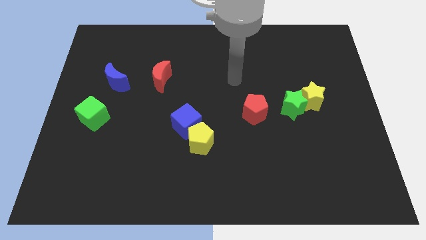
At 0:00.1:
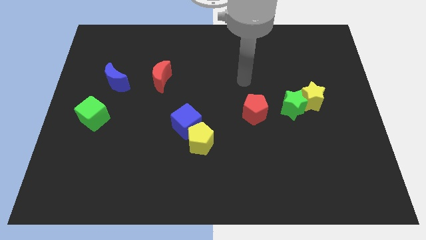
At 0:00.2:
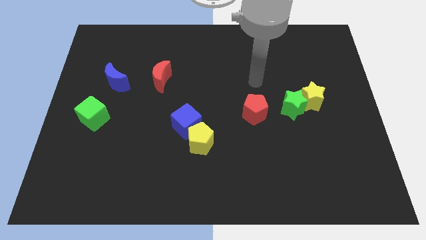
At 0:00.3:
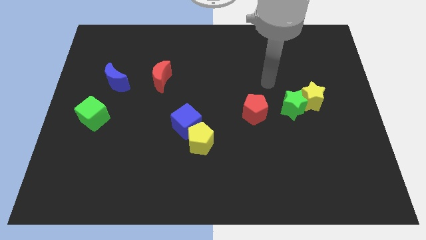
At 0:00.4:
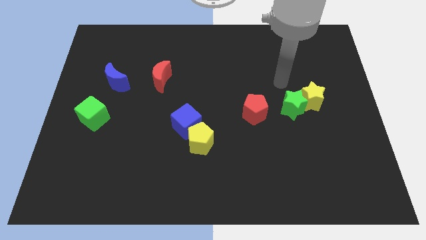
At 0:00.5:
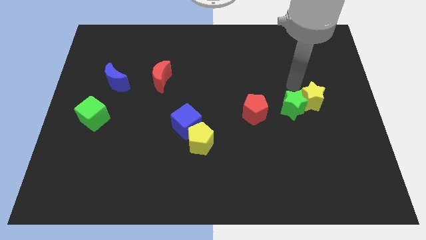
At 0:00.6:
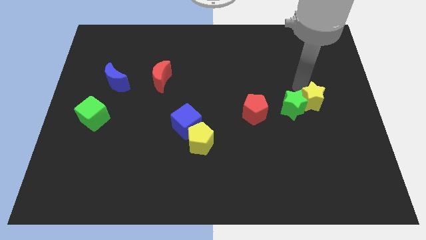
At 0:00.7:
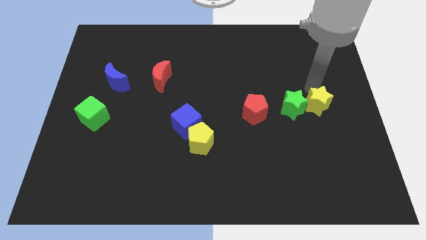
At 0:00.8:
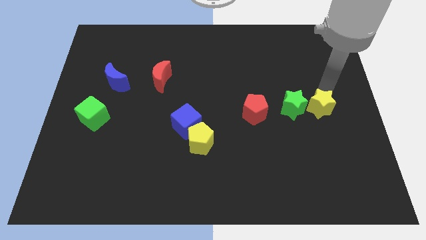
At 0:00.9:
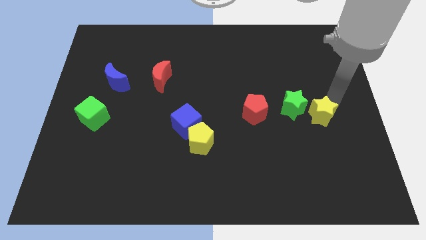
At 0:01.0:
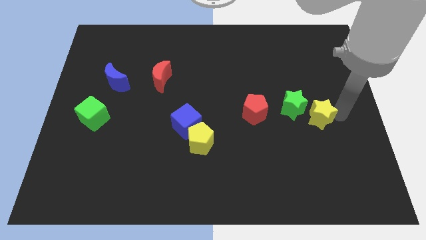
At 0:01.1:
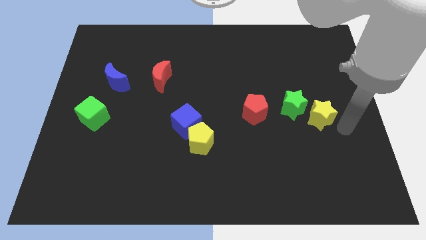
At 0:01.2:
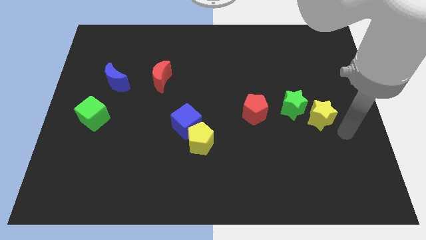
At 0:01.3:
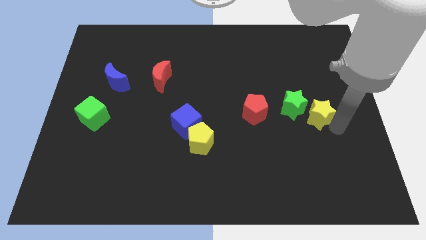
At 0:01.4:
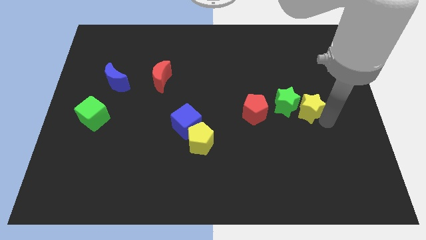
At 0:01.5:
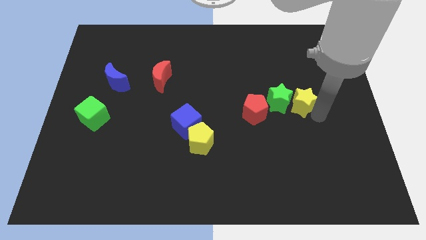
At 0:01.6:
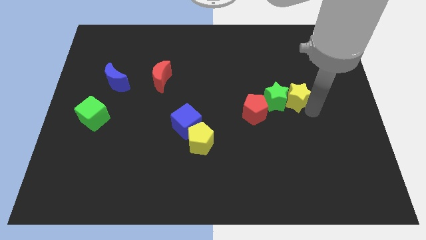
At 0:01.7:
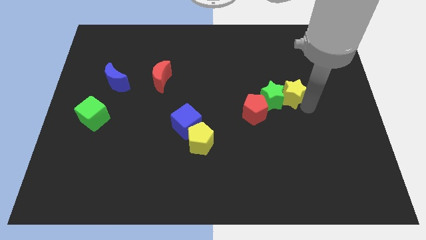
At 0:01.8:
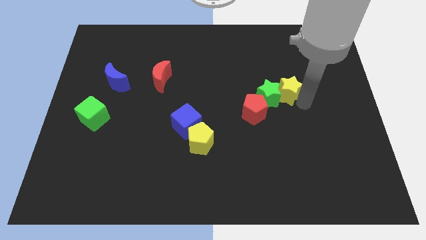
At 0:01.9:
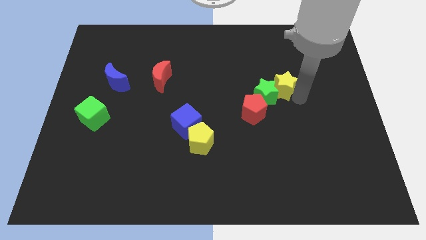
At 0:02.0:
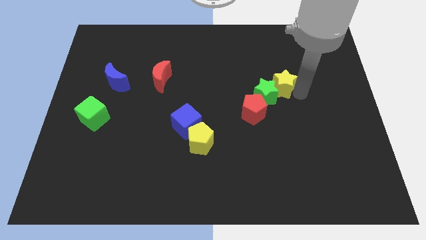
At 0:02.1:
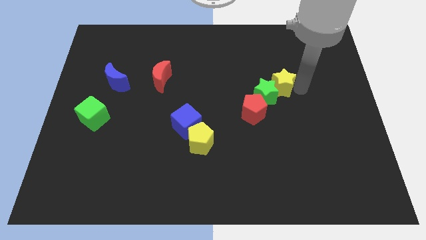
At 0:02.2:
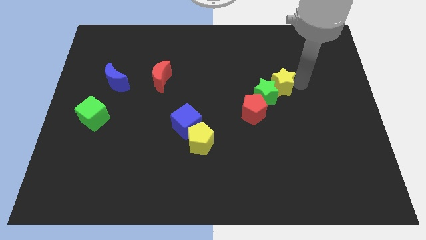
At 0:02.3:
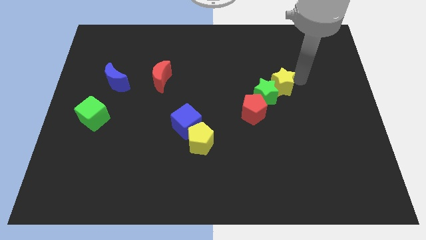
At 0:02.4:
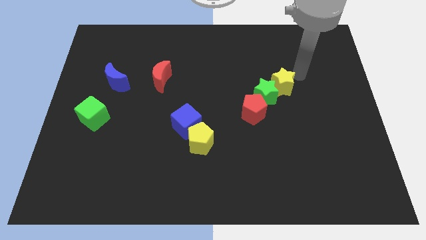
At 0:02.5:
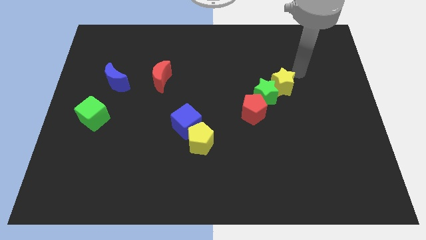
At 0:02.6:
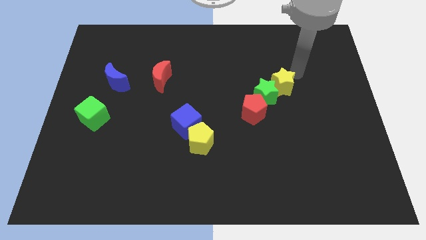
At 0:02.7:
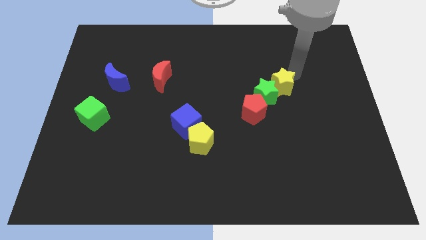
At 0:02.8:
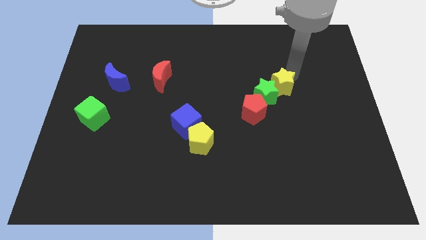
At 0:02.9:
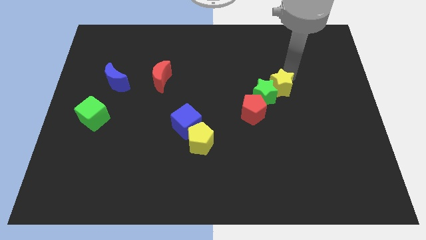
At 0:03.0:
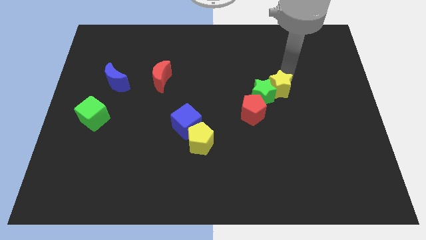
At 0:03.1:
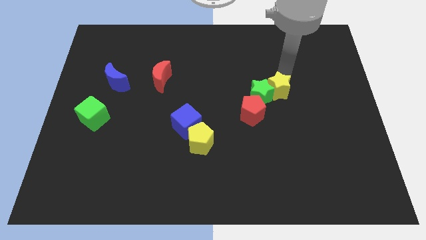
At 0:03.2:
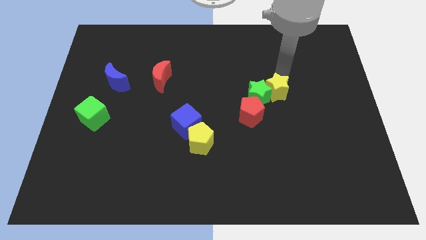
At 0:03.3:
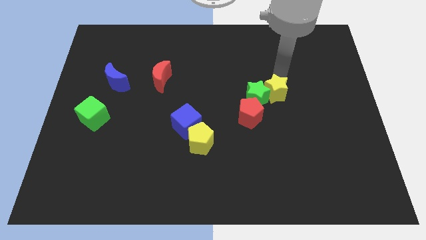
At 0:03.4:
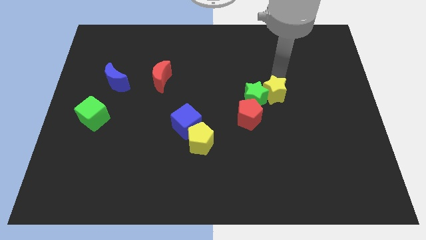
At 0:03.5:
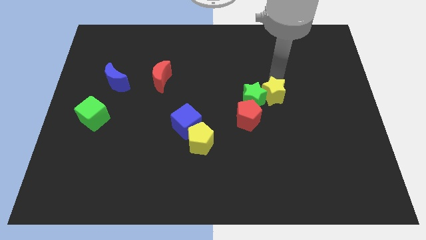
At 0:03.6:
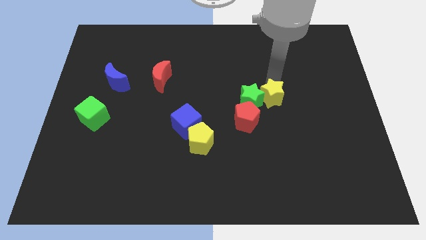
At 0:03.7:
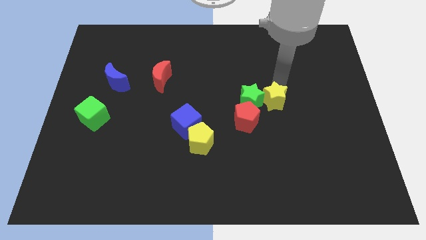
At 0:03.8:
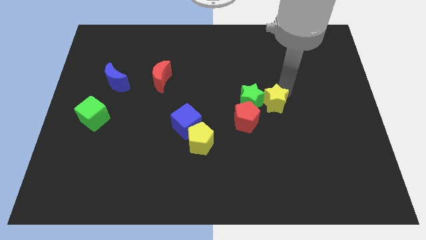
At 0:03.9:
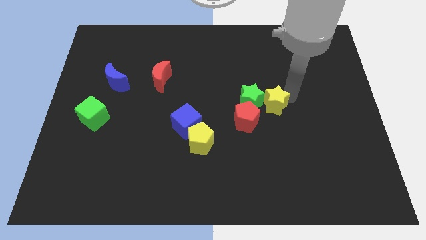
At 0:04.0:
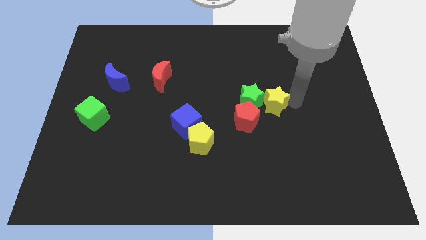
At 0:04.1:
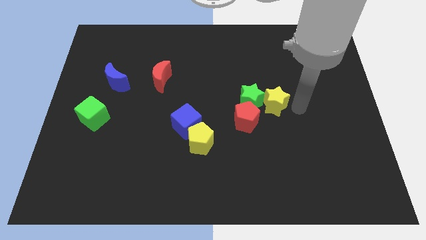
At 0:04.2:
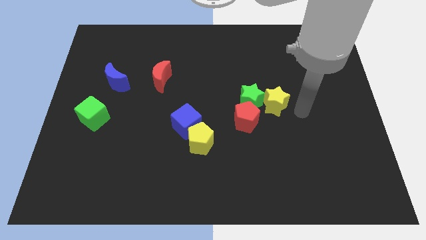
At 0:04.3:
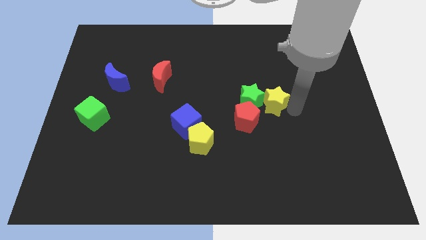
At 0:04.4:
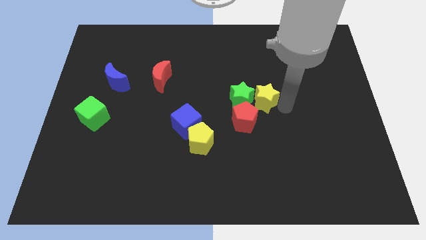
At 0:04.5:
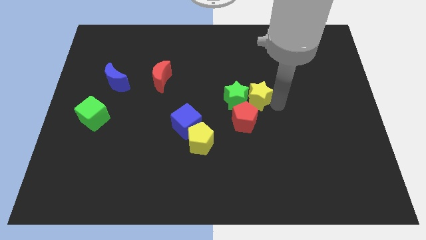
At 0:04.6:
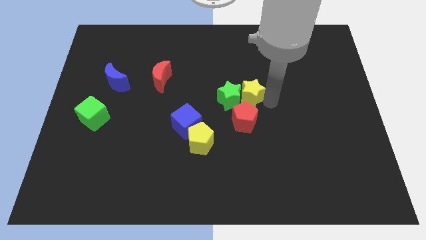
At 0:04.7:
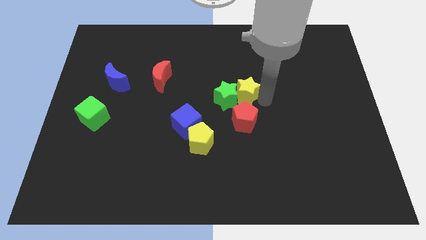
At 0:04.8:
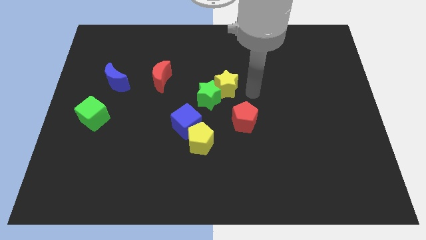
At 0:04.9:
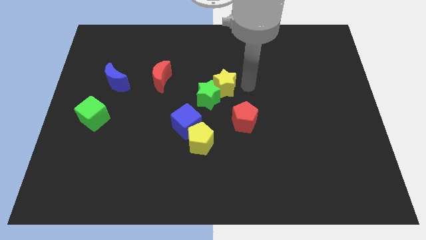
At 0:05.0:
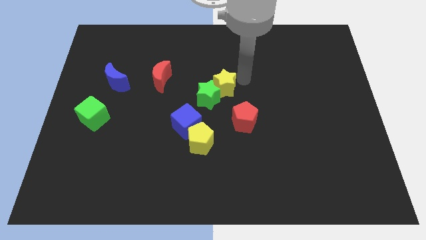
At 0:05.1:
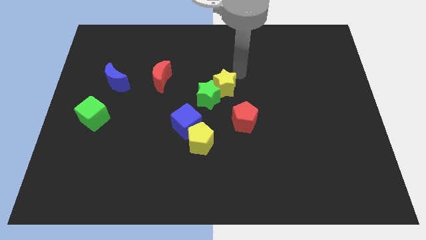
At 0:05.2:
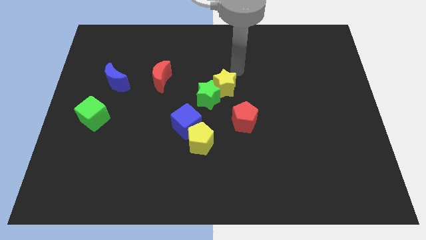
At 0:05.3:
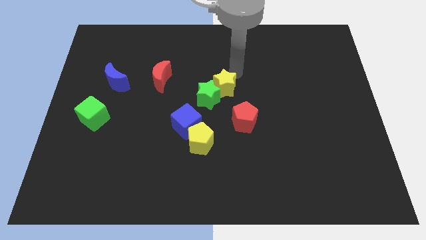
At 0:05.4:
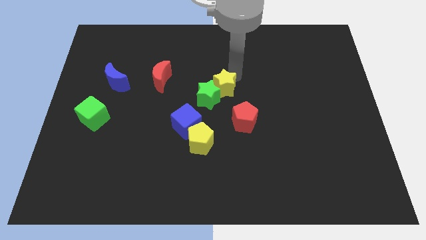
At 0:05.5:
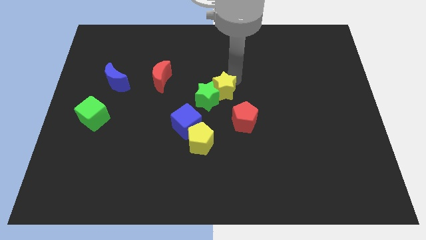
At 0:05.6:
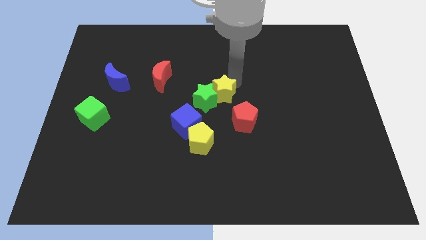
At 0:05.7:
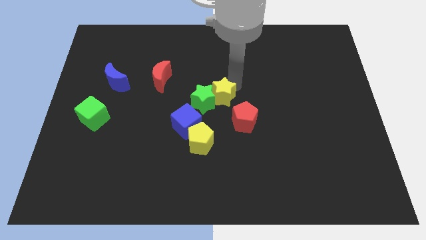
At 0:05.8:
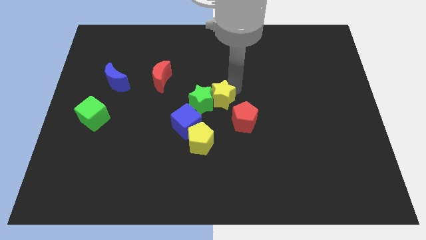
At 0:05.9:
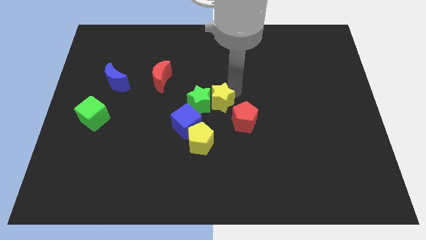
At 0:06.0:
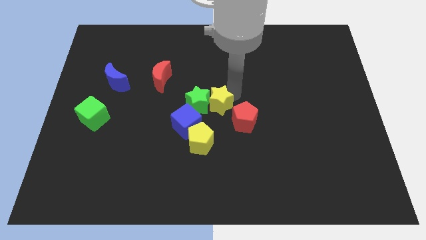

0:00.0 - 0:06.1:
put the yellow star to the left of the red pentagon
